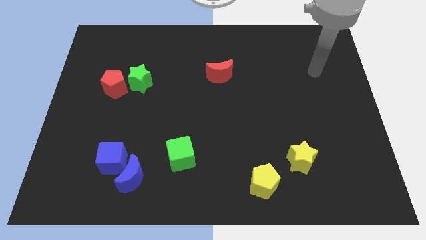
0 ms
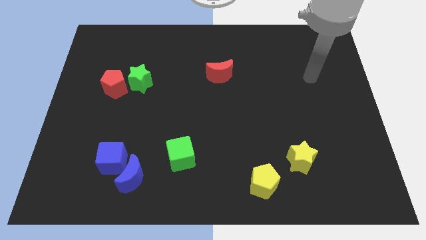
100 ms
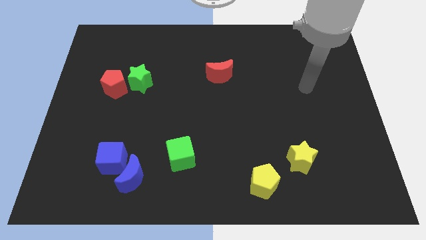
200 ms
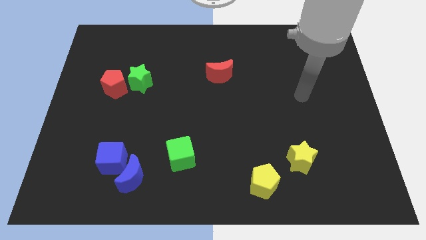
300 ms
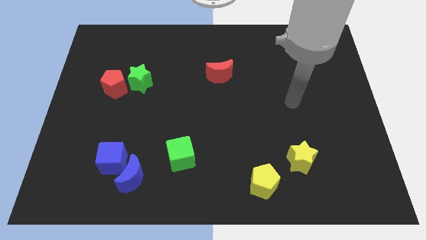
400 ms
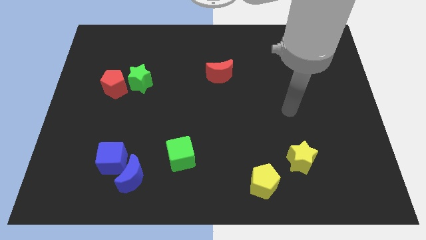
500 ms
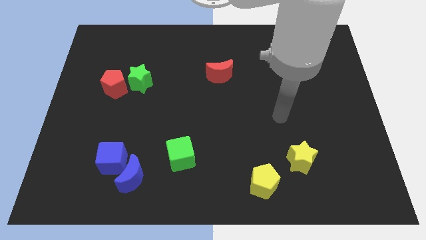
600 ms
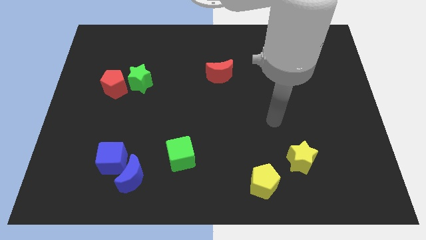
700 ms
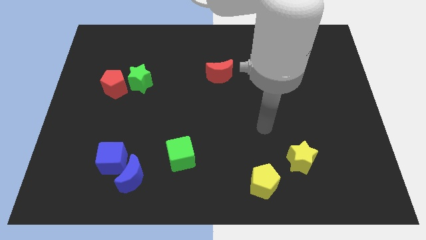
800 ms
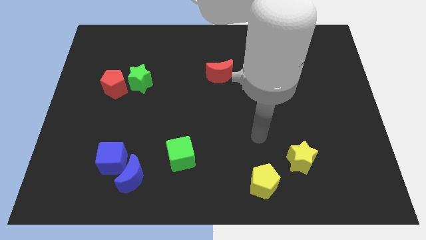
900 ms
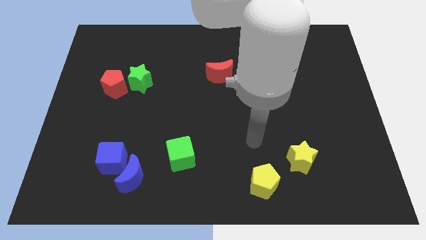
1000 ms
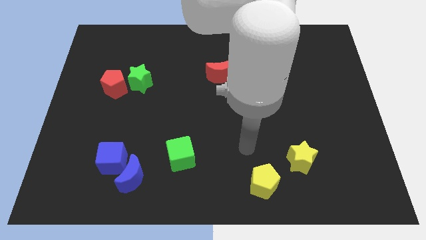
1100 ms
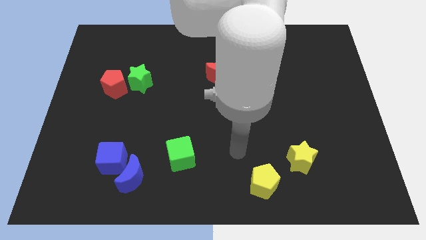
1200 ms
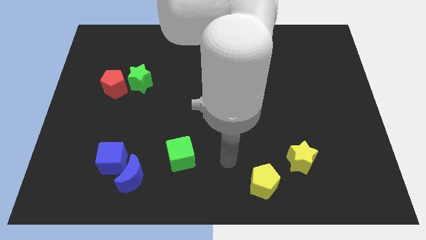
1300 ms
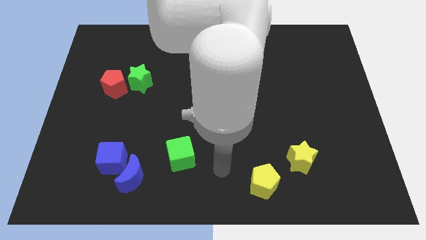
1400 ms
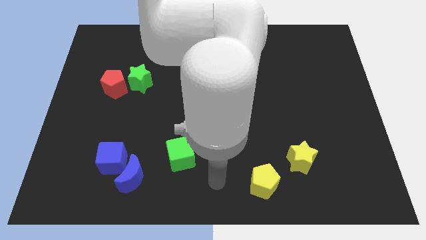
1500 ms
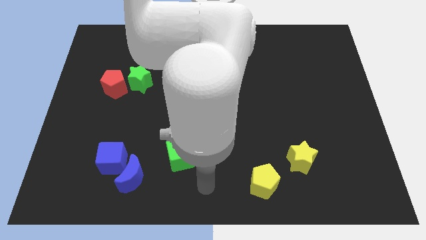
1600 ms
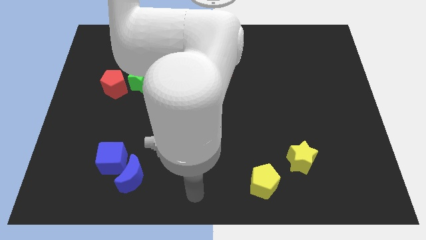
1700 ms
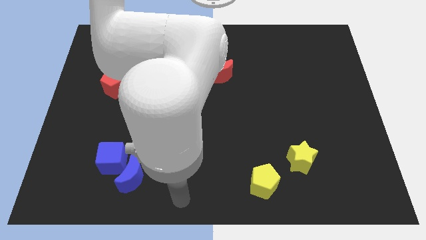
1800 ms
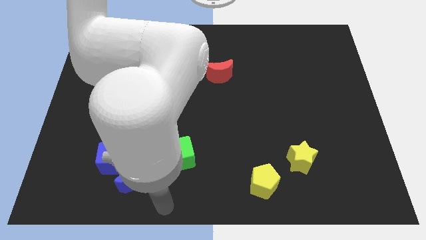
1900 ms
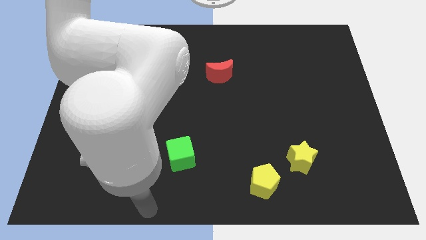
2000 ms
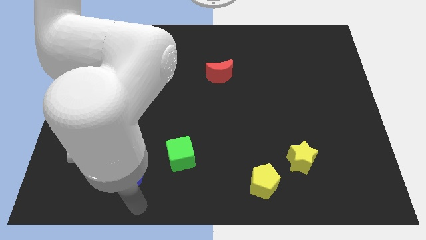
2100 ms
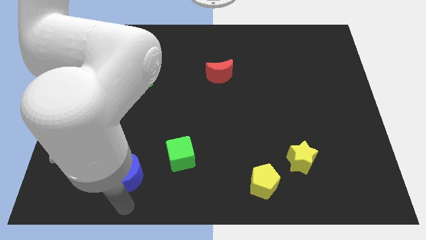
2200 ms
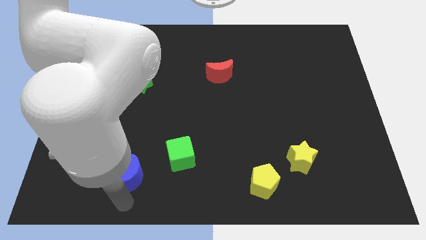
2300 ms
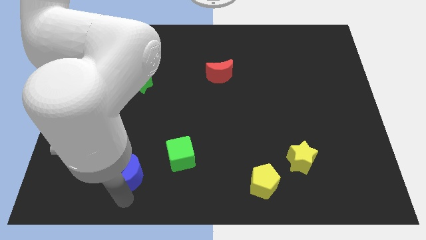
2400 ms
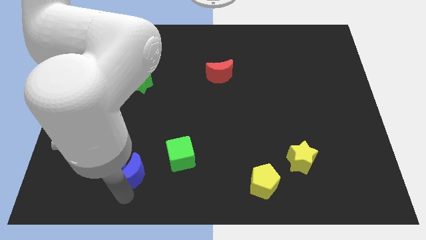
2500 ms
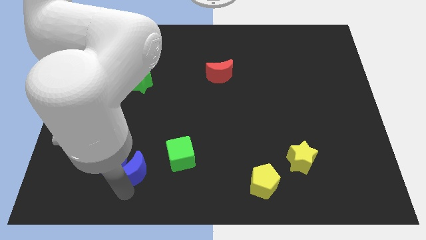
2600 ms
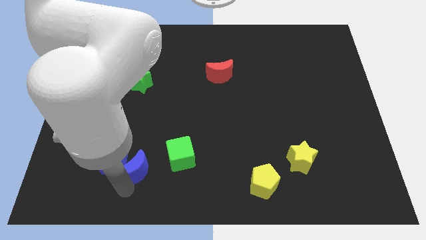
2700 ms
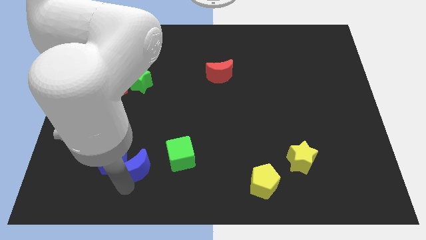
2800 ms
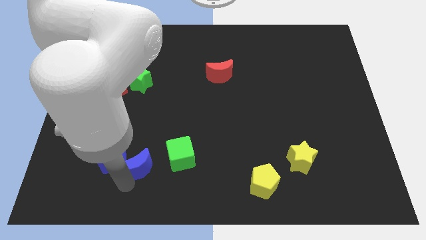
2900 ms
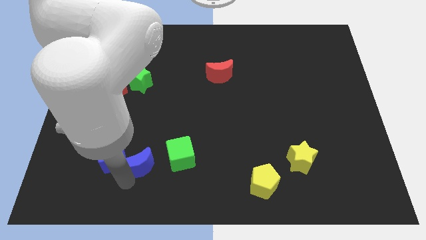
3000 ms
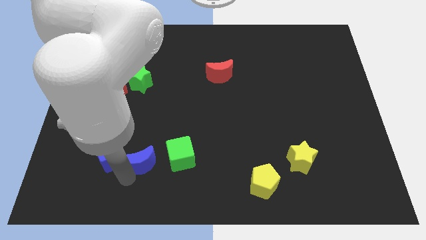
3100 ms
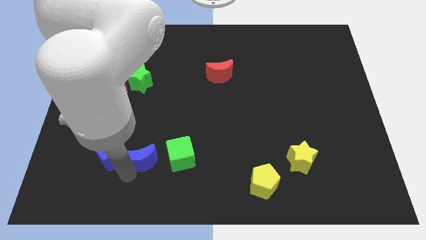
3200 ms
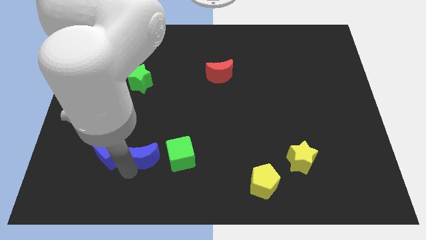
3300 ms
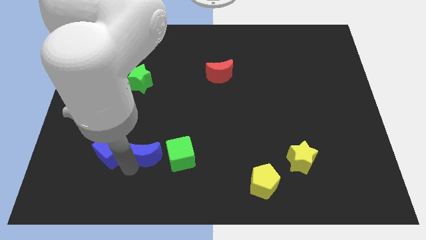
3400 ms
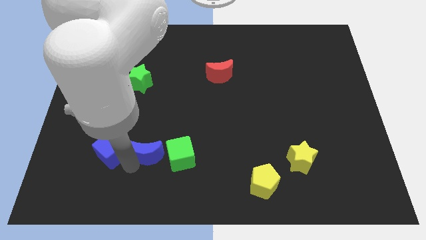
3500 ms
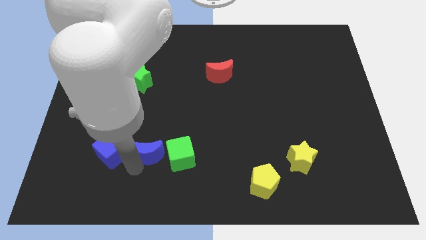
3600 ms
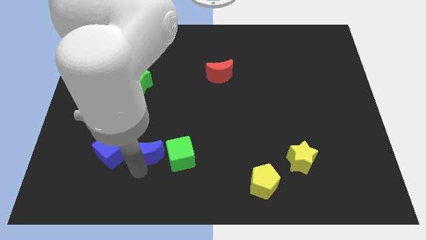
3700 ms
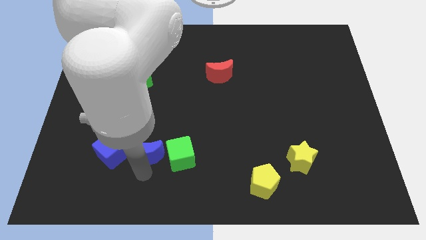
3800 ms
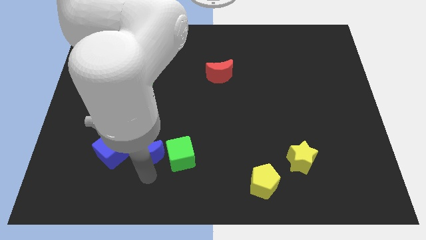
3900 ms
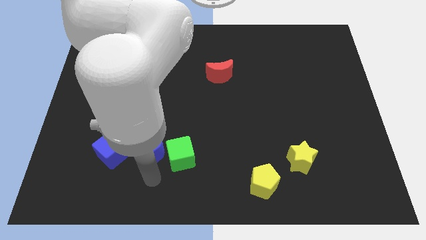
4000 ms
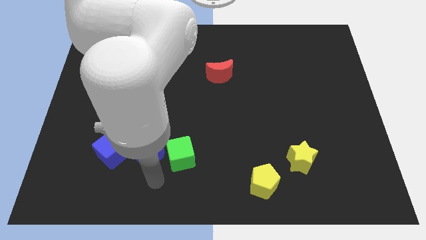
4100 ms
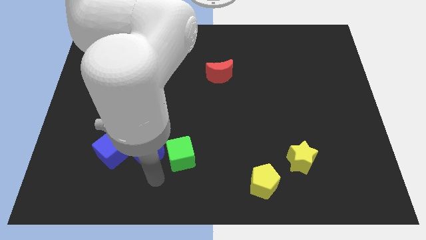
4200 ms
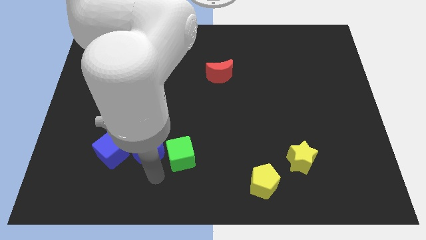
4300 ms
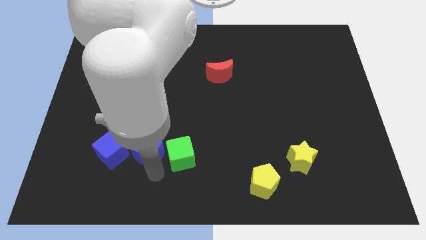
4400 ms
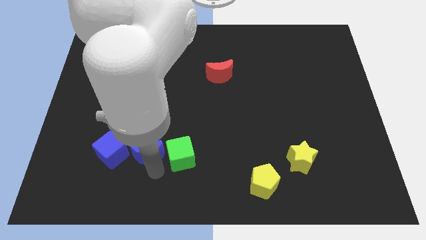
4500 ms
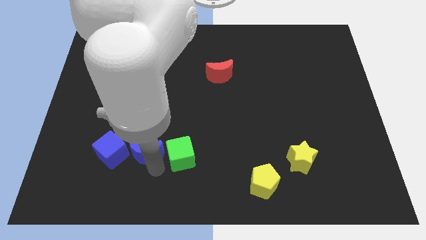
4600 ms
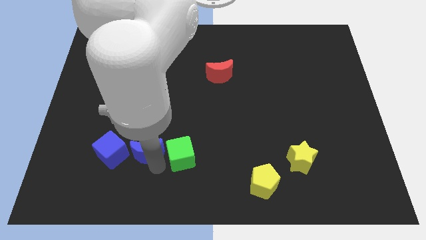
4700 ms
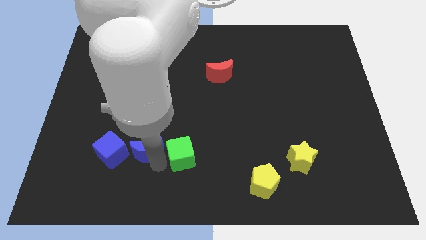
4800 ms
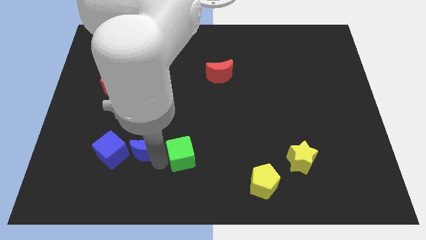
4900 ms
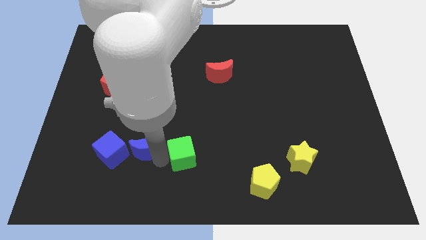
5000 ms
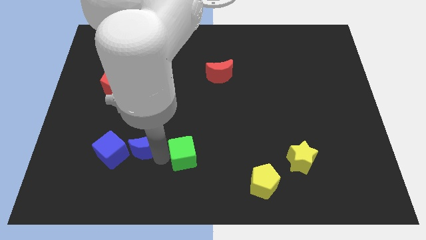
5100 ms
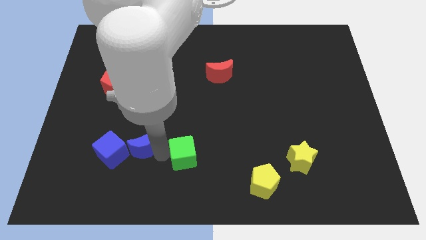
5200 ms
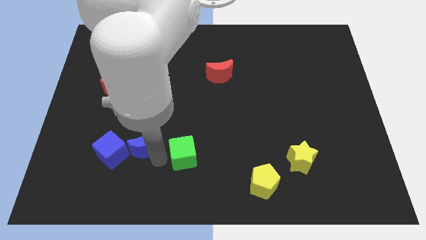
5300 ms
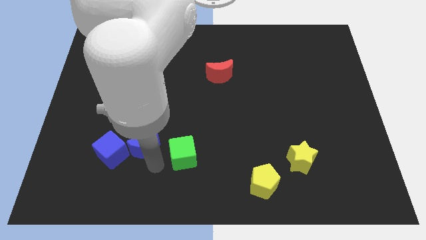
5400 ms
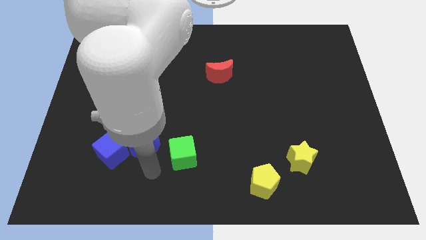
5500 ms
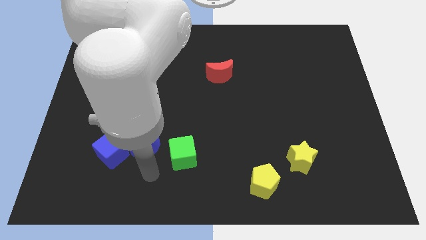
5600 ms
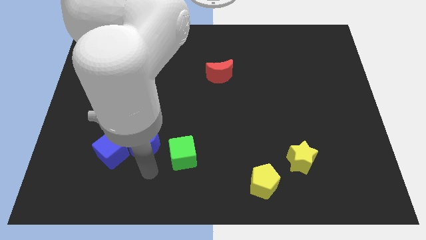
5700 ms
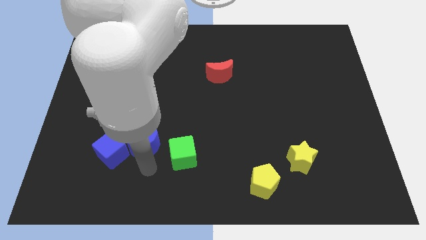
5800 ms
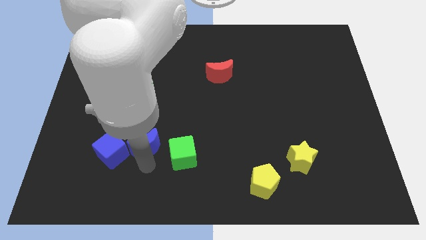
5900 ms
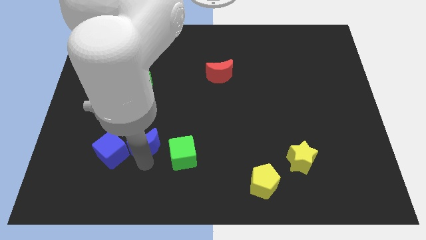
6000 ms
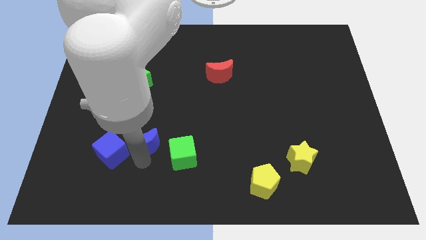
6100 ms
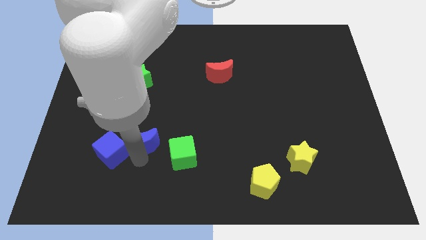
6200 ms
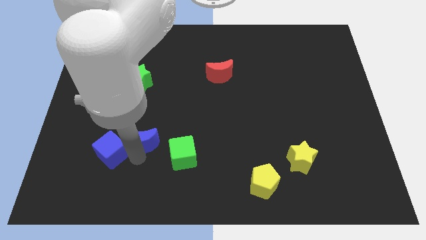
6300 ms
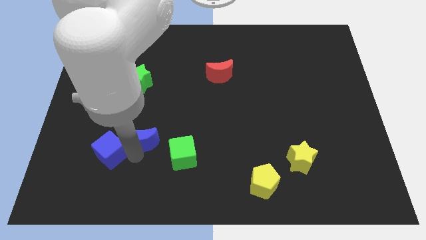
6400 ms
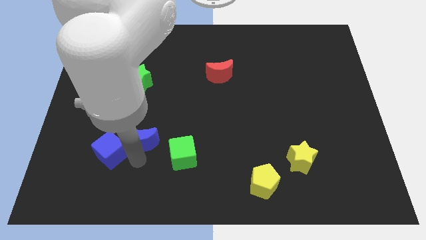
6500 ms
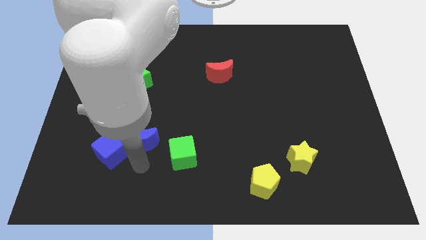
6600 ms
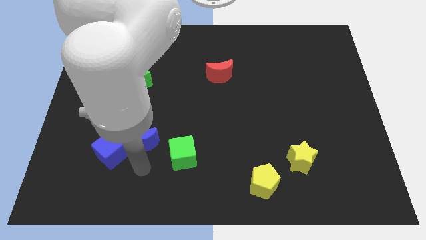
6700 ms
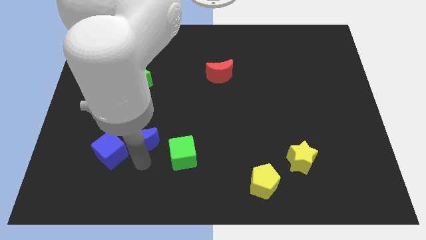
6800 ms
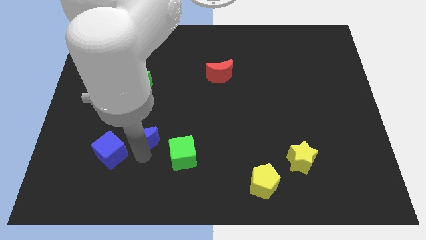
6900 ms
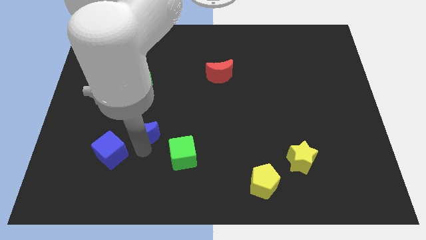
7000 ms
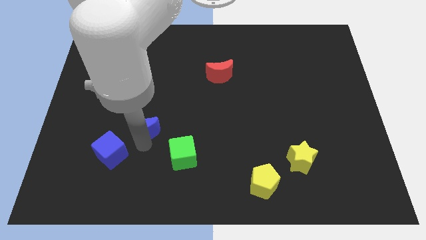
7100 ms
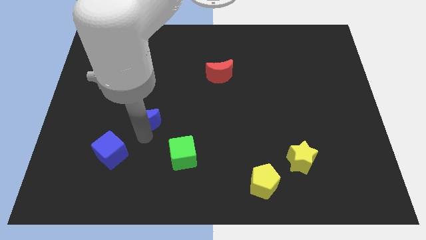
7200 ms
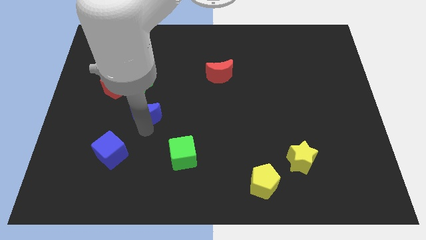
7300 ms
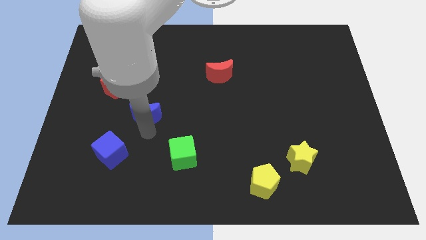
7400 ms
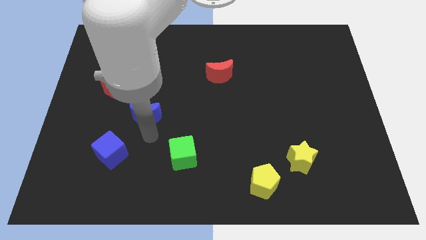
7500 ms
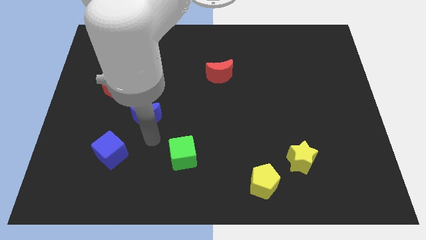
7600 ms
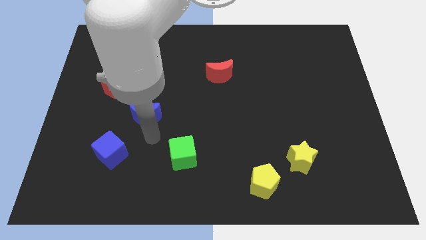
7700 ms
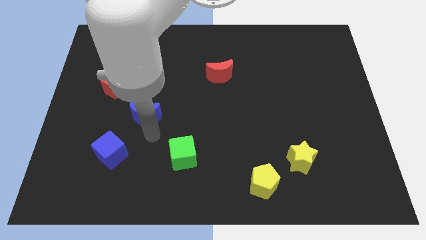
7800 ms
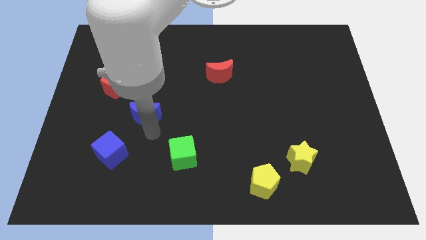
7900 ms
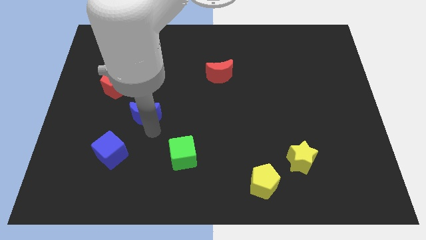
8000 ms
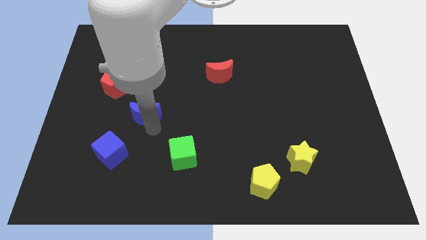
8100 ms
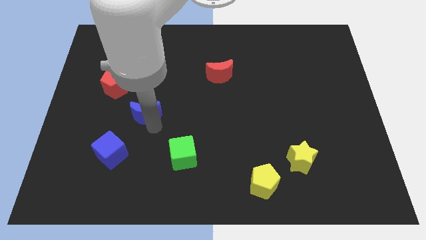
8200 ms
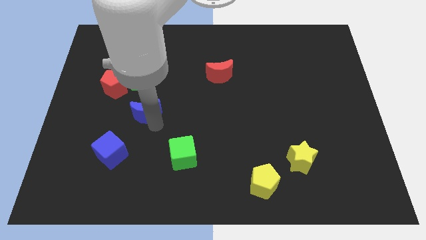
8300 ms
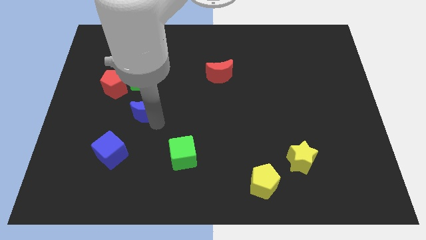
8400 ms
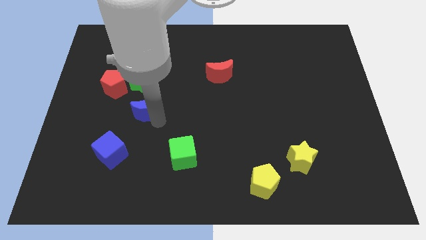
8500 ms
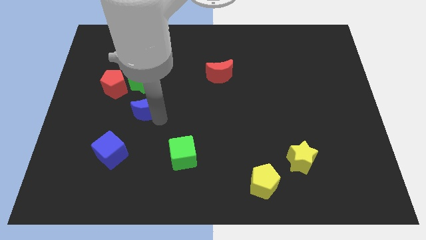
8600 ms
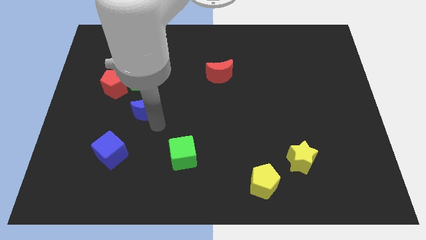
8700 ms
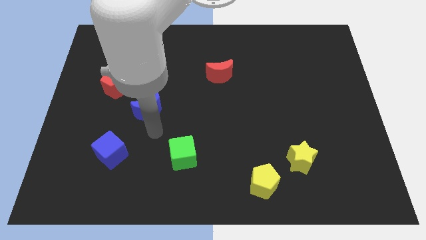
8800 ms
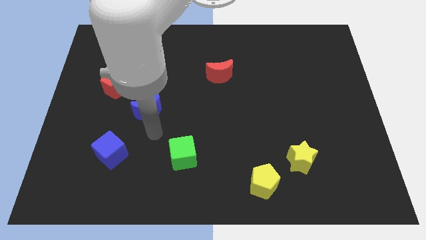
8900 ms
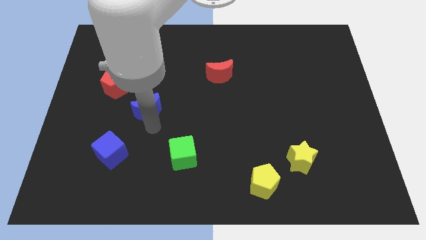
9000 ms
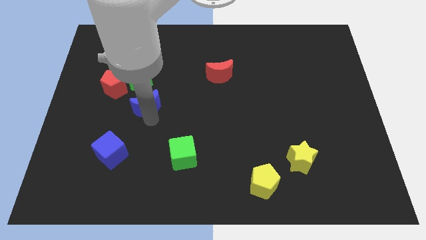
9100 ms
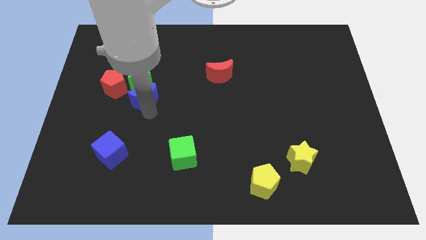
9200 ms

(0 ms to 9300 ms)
move the blue moon close to the green star
